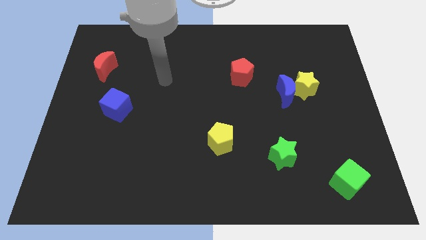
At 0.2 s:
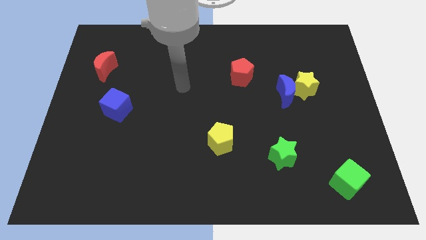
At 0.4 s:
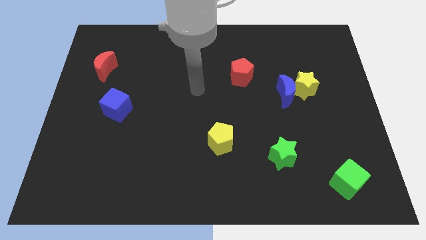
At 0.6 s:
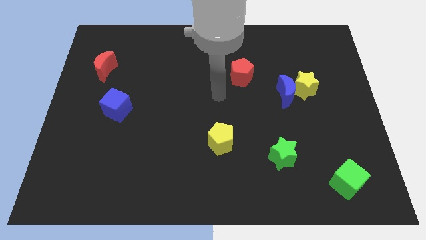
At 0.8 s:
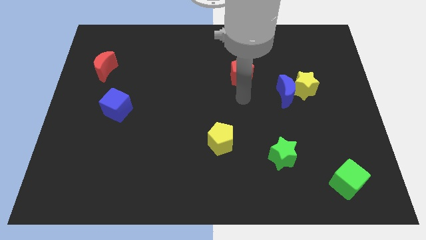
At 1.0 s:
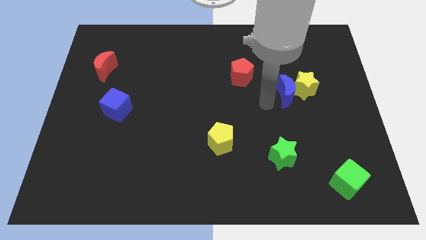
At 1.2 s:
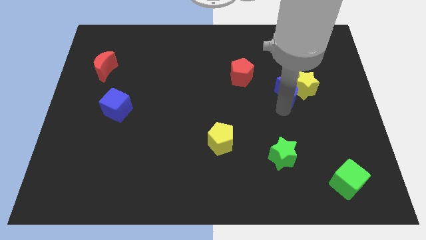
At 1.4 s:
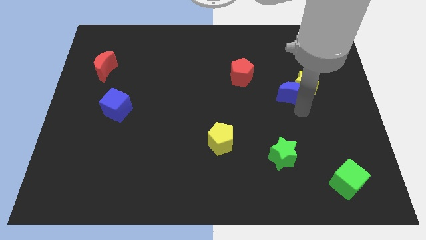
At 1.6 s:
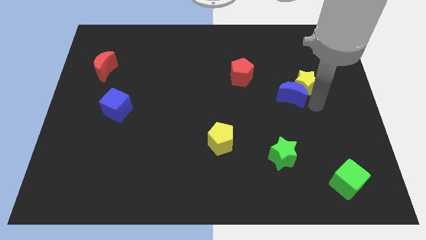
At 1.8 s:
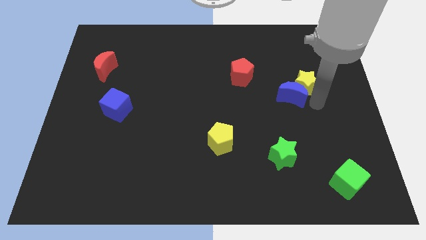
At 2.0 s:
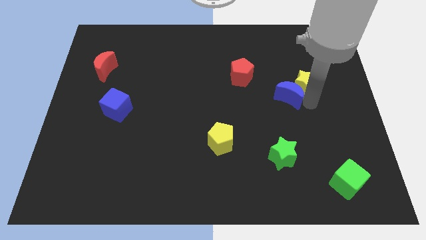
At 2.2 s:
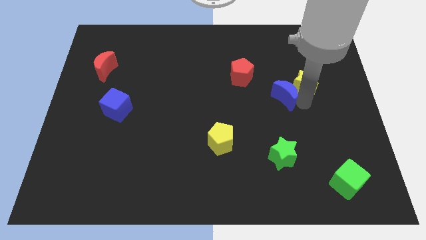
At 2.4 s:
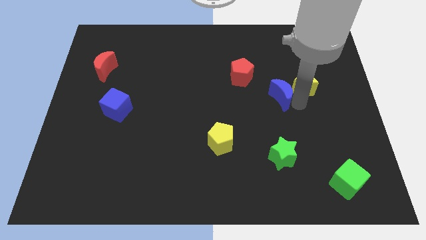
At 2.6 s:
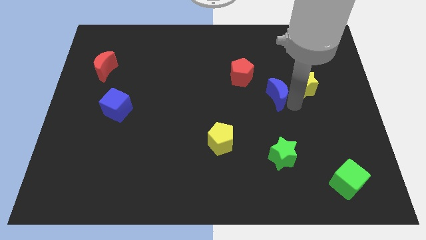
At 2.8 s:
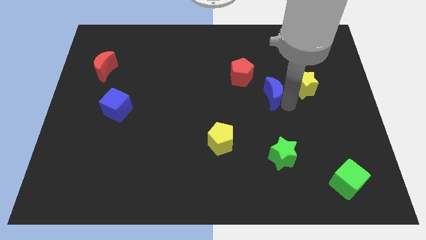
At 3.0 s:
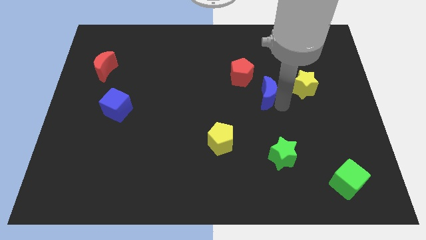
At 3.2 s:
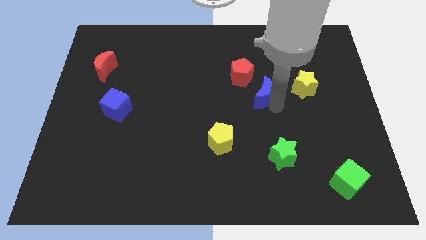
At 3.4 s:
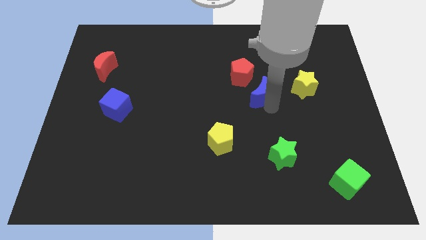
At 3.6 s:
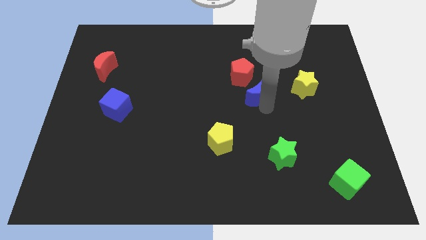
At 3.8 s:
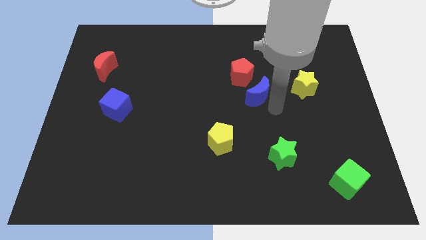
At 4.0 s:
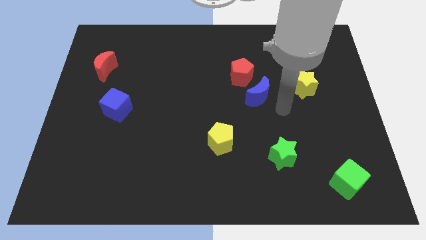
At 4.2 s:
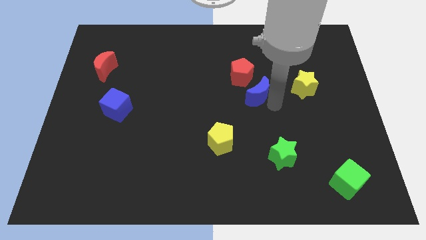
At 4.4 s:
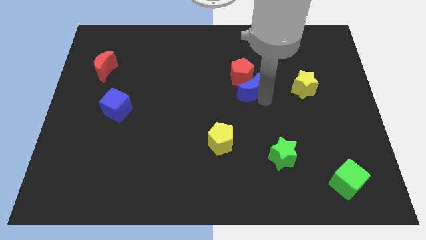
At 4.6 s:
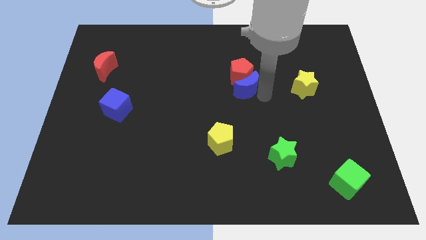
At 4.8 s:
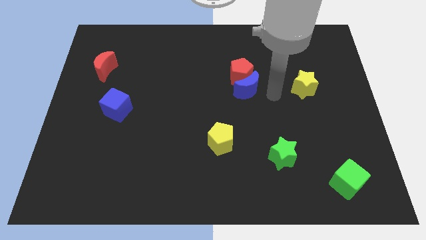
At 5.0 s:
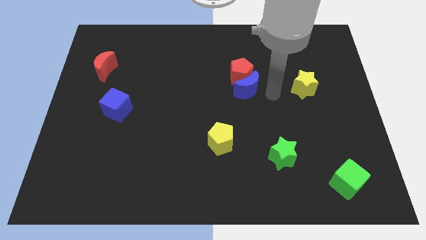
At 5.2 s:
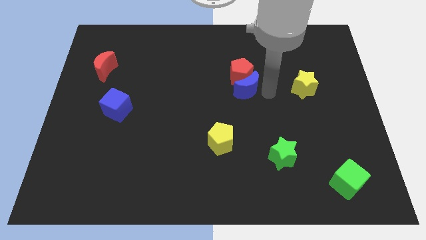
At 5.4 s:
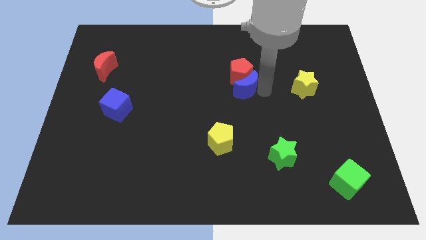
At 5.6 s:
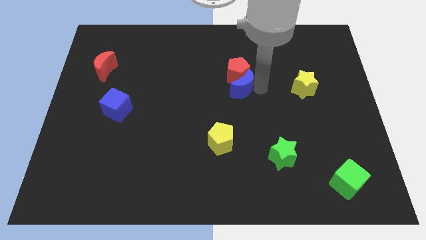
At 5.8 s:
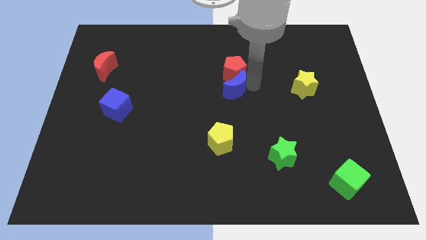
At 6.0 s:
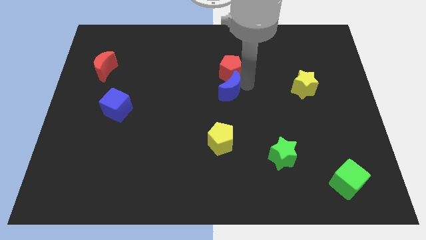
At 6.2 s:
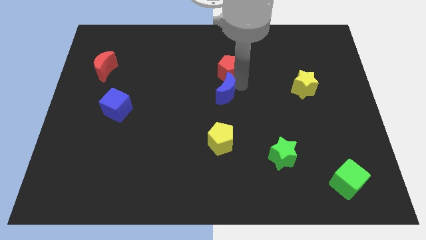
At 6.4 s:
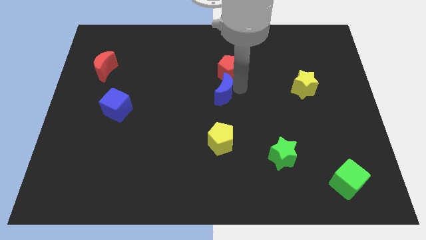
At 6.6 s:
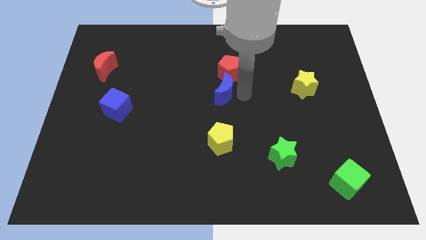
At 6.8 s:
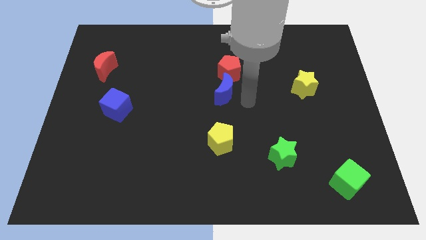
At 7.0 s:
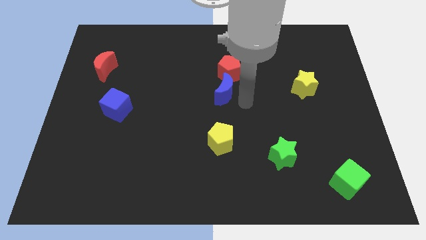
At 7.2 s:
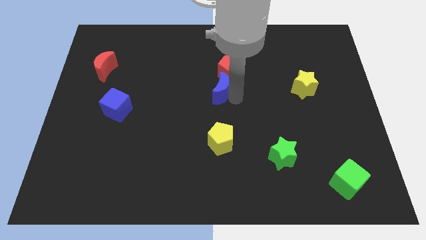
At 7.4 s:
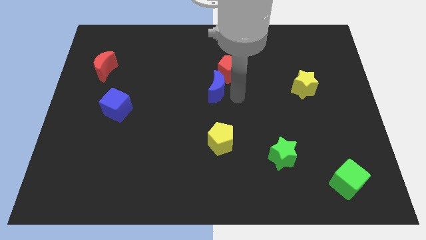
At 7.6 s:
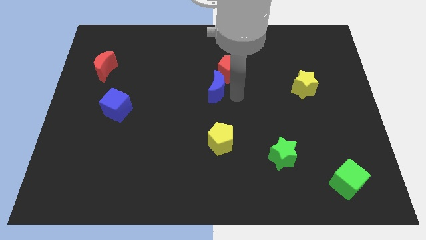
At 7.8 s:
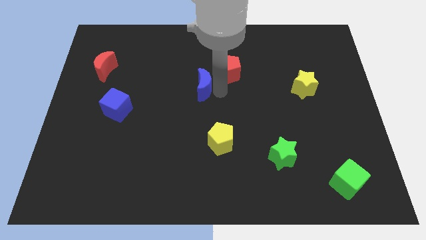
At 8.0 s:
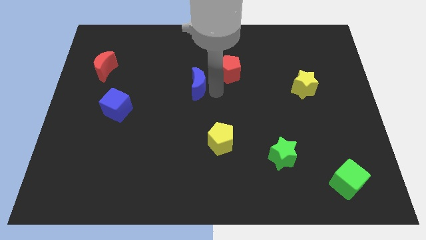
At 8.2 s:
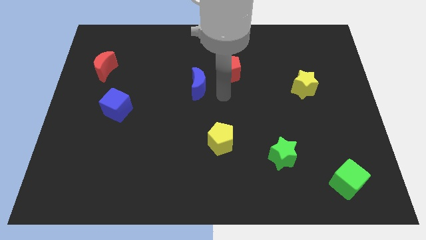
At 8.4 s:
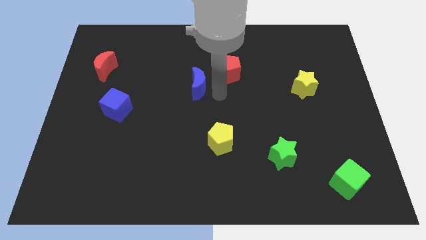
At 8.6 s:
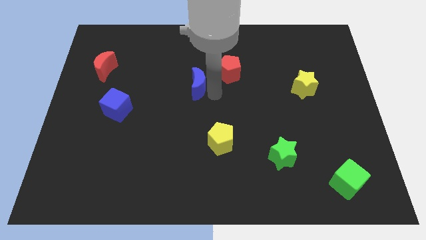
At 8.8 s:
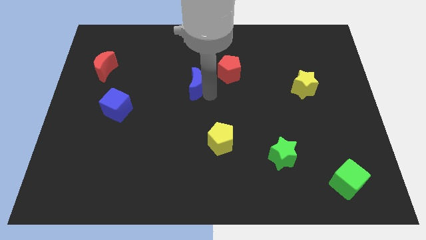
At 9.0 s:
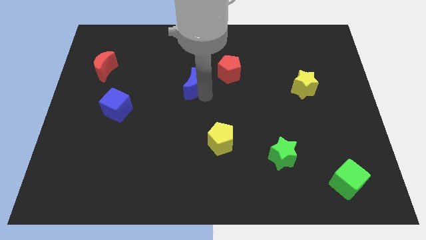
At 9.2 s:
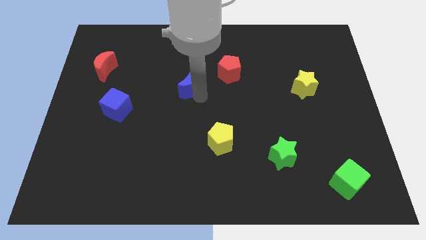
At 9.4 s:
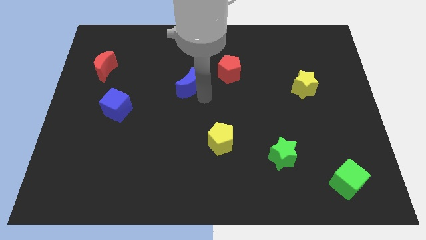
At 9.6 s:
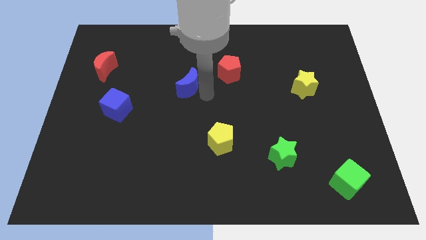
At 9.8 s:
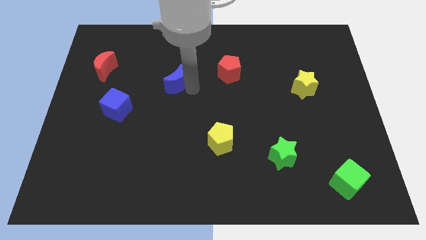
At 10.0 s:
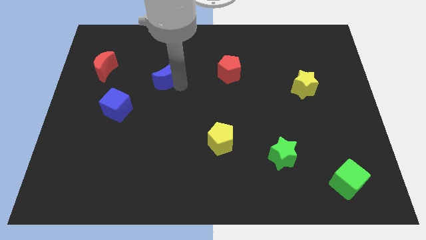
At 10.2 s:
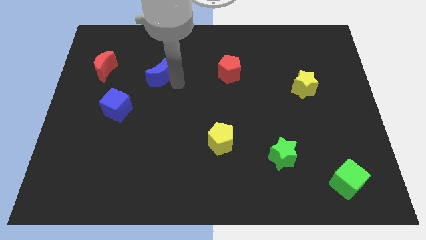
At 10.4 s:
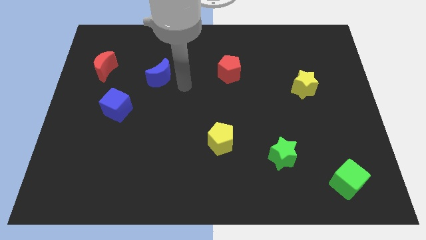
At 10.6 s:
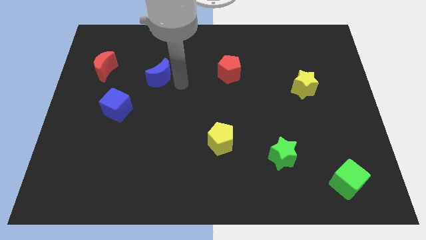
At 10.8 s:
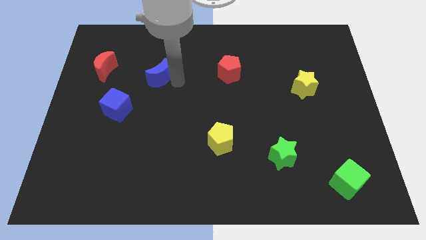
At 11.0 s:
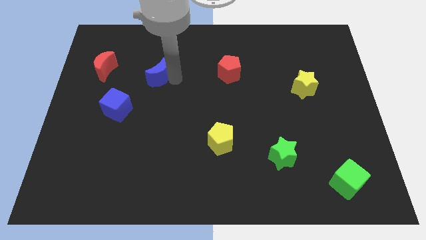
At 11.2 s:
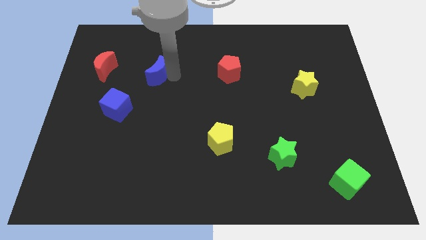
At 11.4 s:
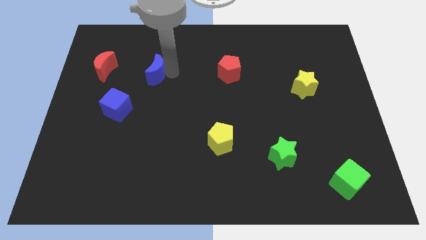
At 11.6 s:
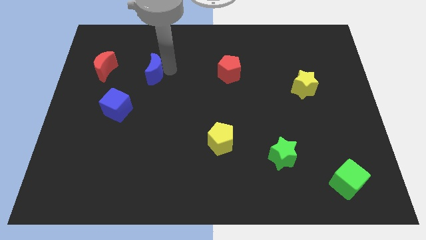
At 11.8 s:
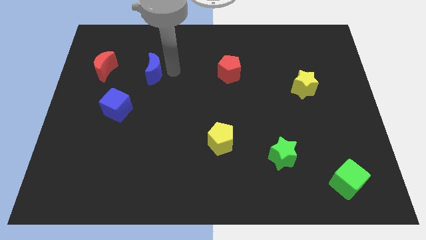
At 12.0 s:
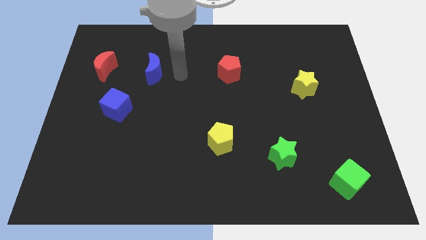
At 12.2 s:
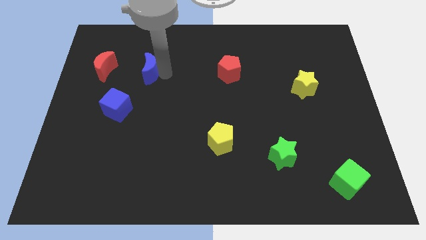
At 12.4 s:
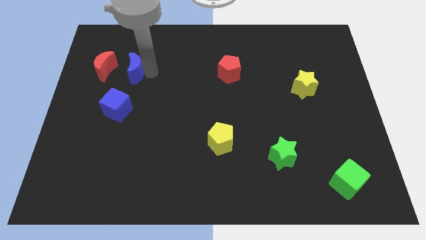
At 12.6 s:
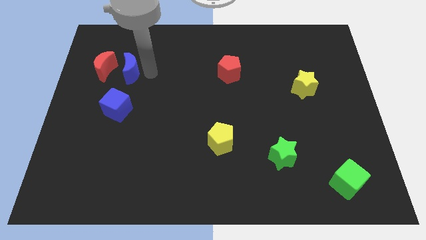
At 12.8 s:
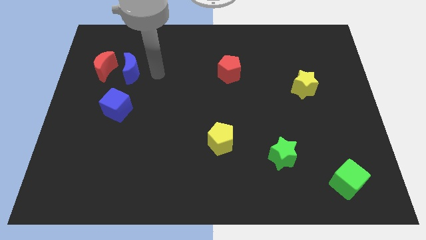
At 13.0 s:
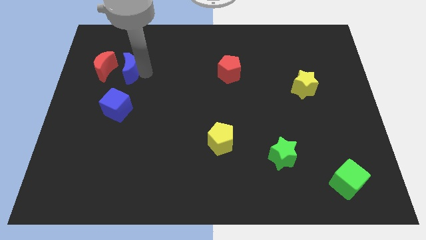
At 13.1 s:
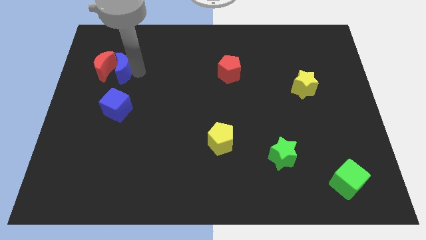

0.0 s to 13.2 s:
move the blue moon close to the red moon
